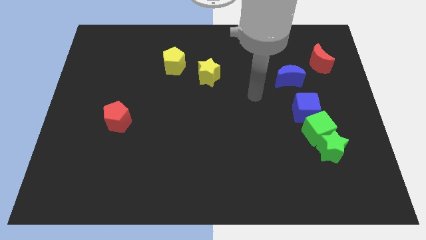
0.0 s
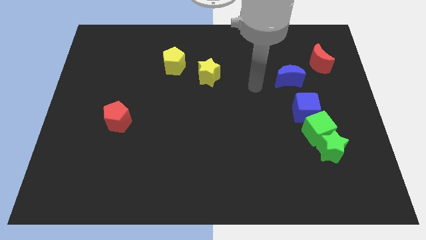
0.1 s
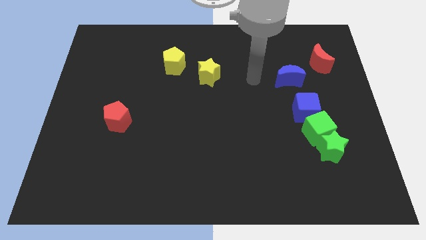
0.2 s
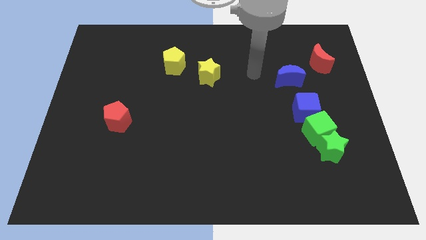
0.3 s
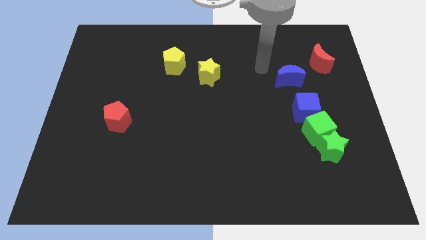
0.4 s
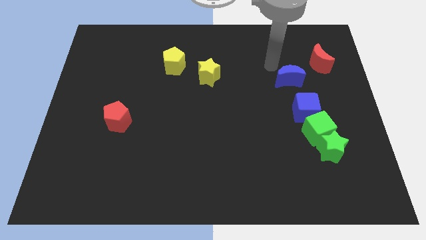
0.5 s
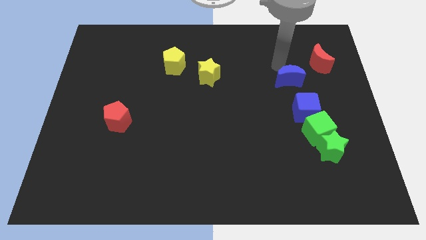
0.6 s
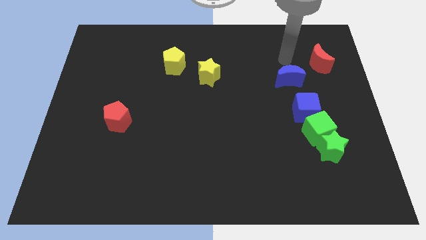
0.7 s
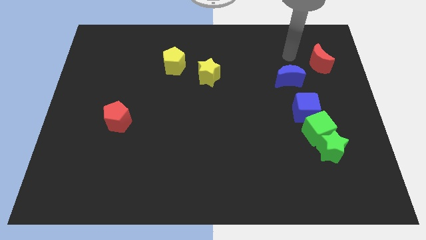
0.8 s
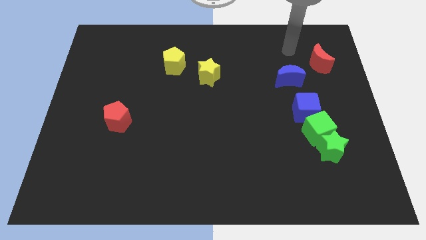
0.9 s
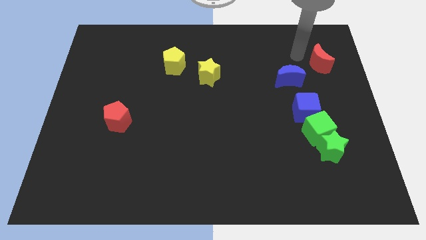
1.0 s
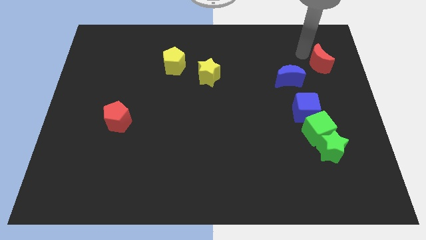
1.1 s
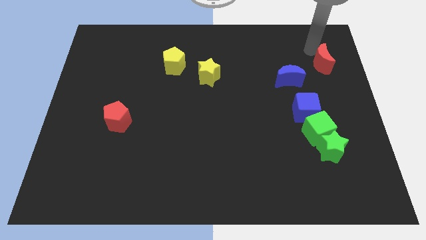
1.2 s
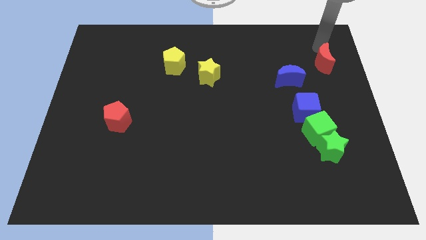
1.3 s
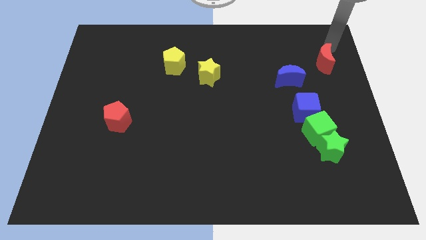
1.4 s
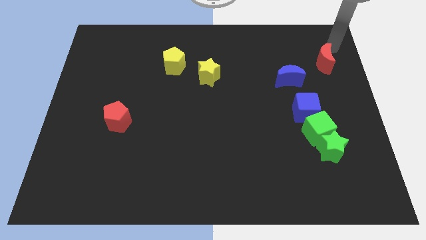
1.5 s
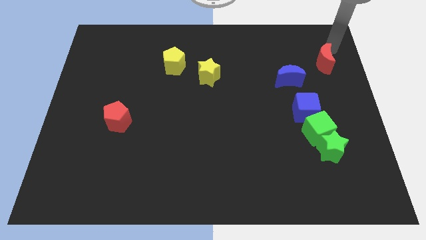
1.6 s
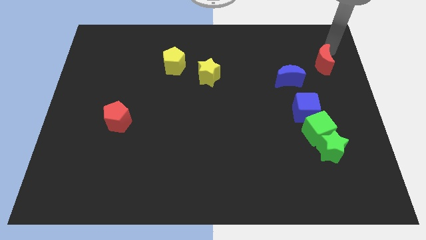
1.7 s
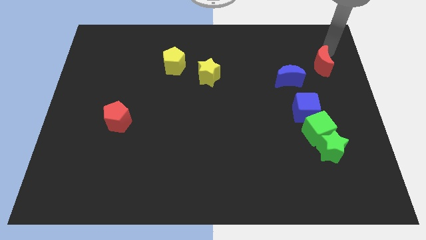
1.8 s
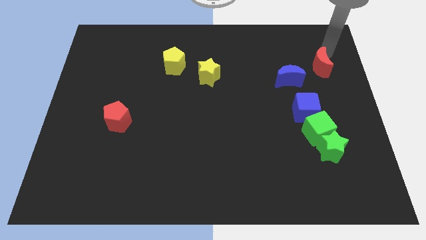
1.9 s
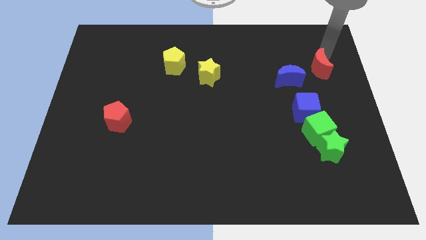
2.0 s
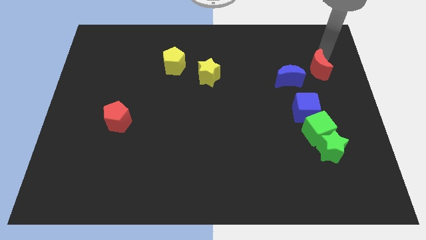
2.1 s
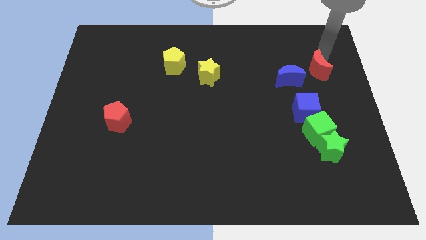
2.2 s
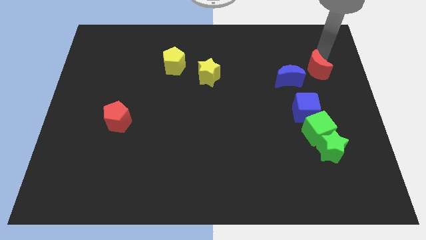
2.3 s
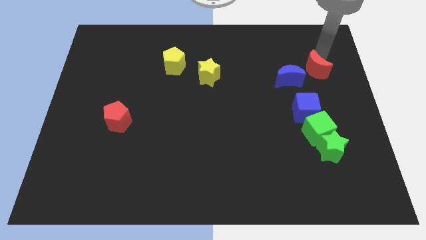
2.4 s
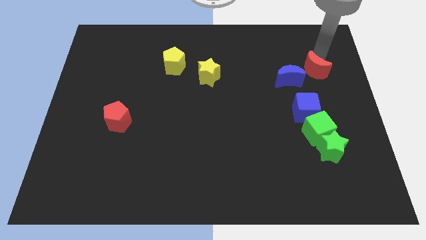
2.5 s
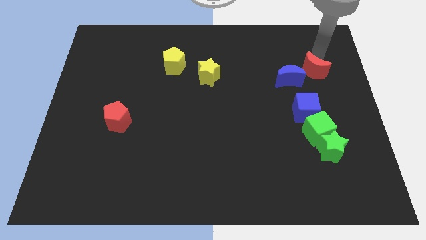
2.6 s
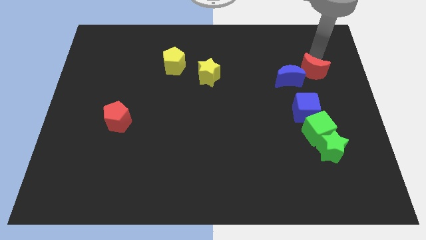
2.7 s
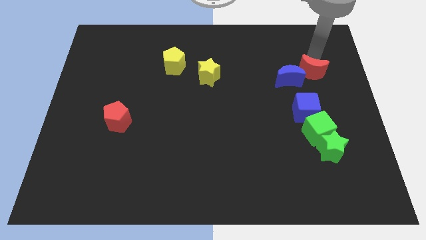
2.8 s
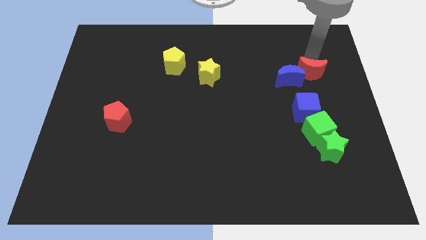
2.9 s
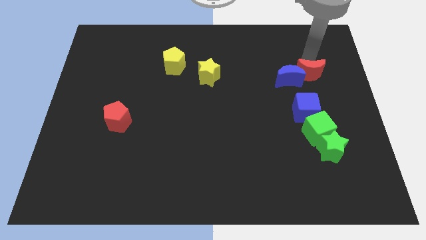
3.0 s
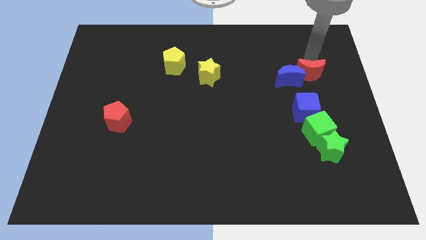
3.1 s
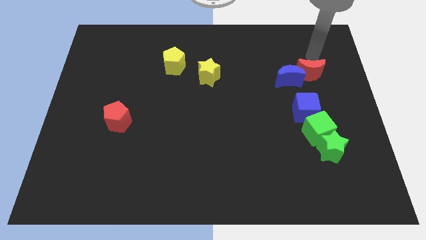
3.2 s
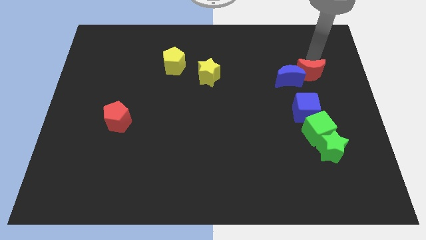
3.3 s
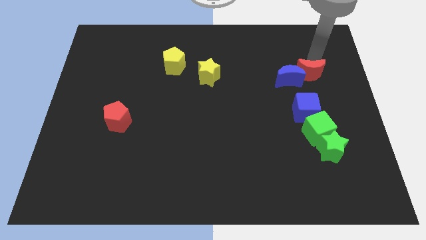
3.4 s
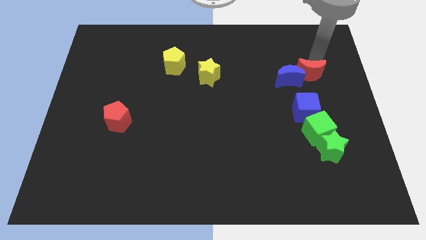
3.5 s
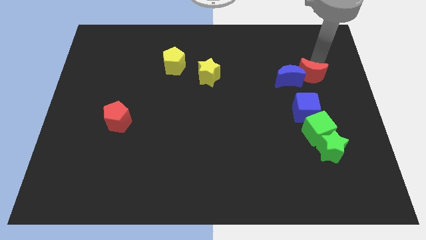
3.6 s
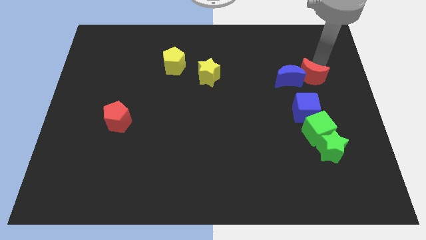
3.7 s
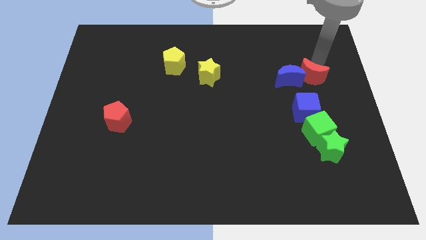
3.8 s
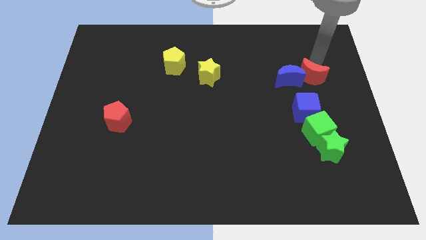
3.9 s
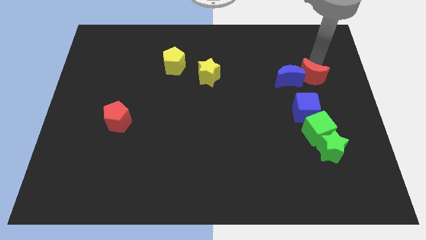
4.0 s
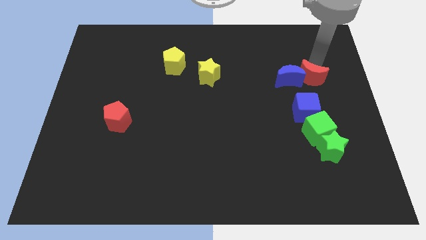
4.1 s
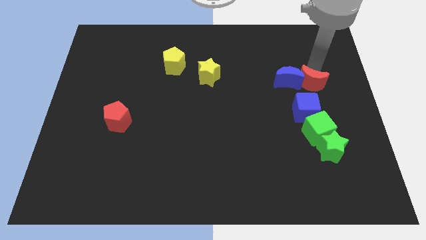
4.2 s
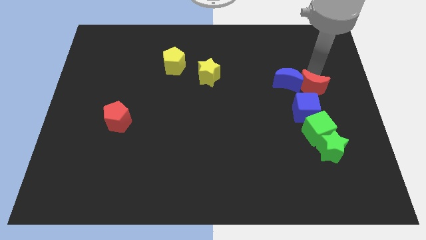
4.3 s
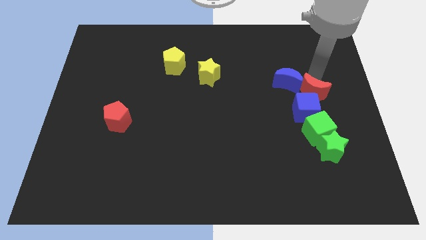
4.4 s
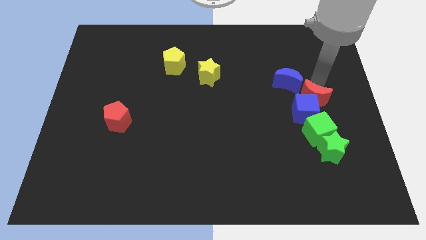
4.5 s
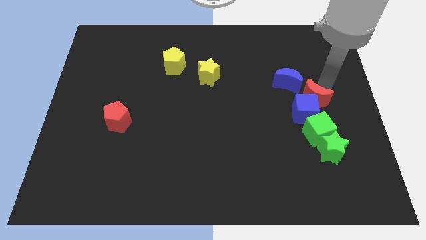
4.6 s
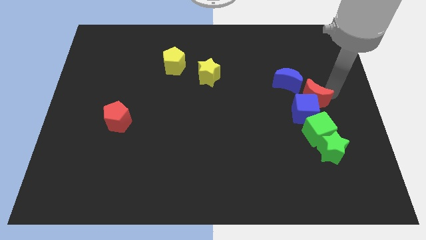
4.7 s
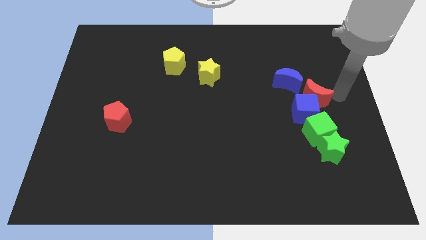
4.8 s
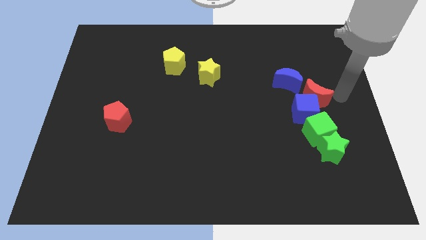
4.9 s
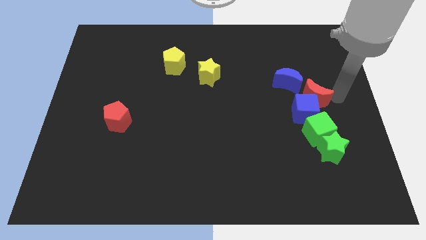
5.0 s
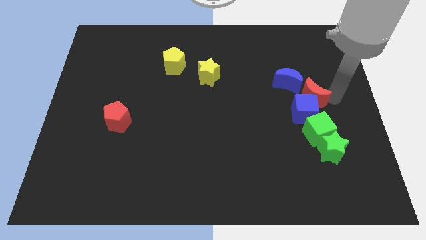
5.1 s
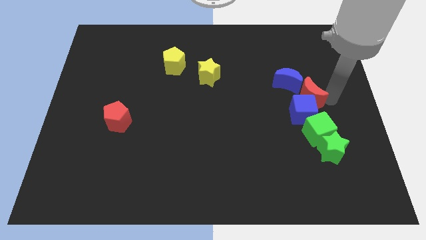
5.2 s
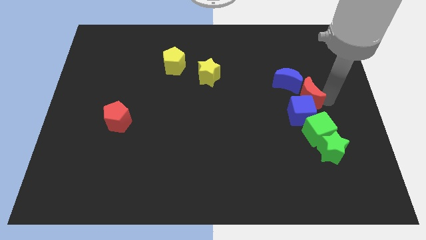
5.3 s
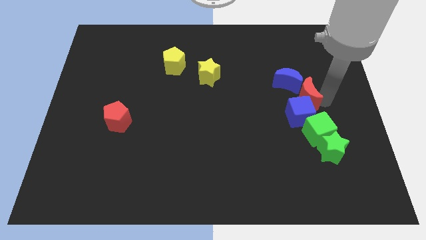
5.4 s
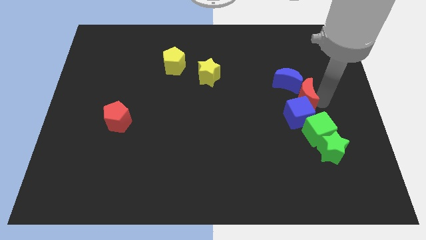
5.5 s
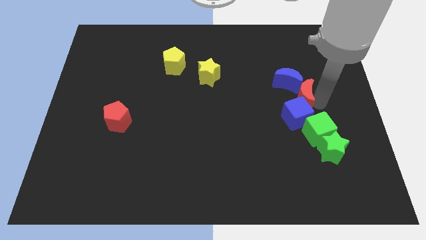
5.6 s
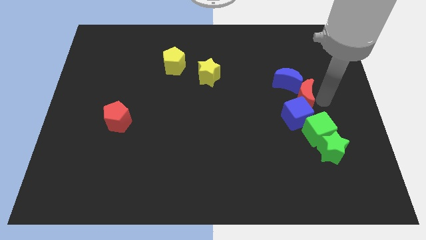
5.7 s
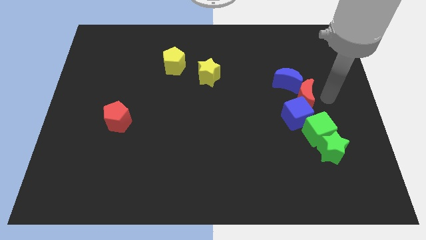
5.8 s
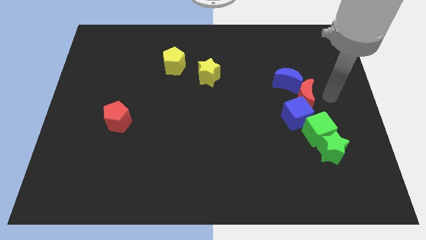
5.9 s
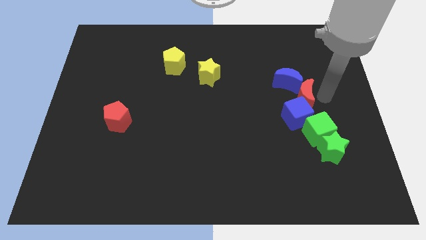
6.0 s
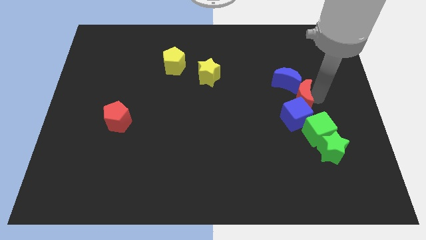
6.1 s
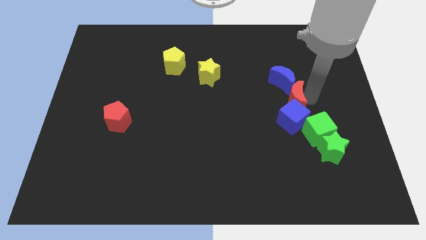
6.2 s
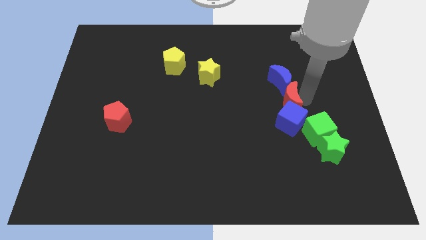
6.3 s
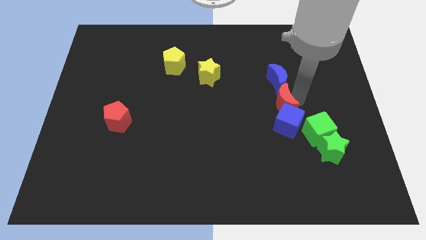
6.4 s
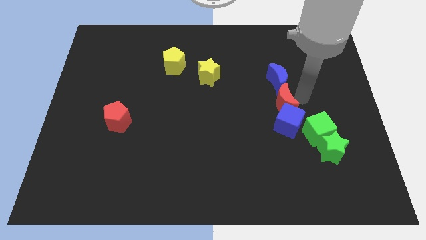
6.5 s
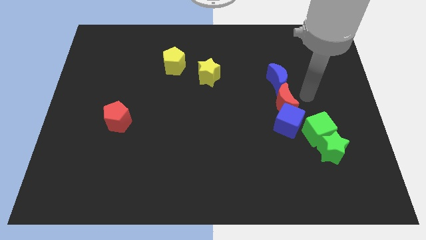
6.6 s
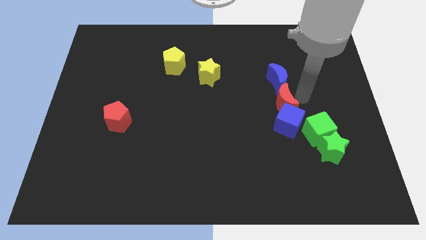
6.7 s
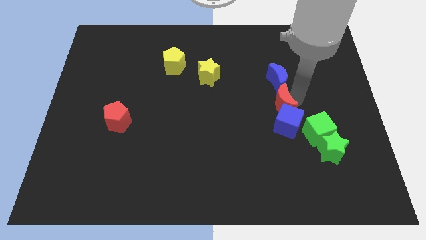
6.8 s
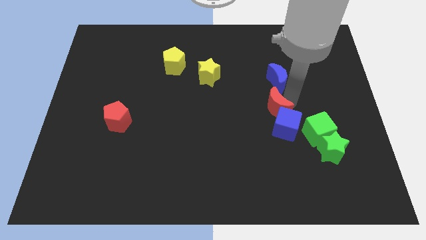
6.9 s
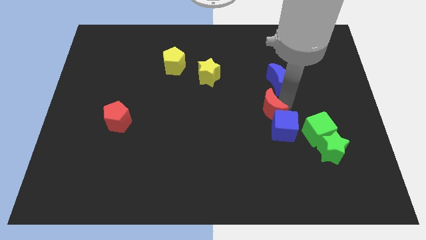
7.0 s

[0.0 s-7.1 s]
slide the red moon diagonally down and left

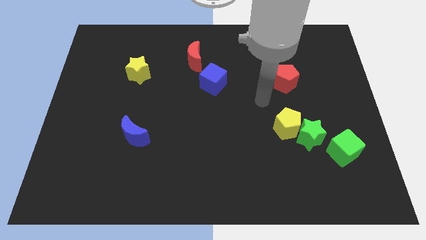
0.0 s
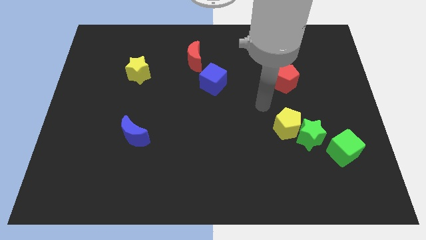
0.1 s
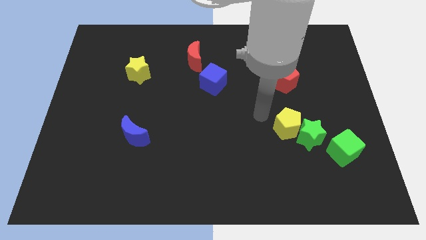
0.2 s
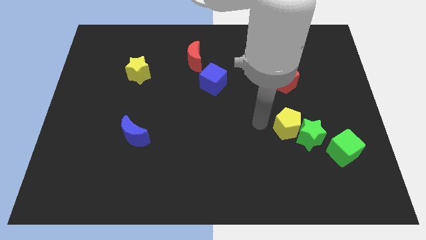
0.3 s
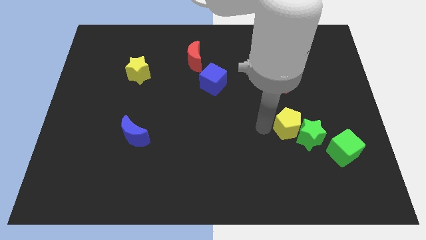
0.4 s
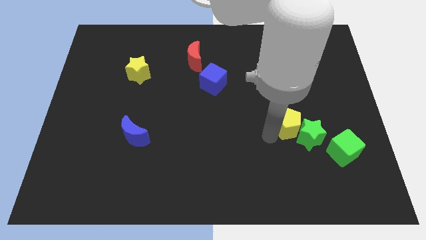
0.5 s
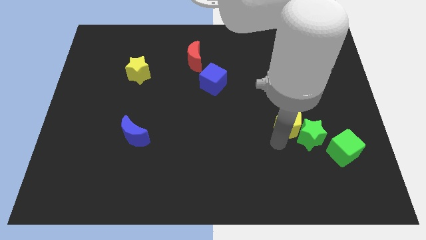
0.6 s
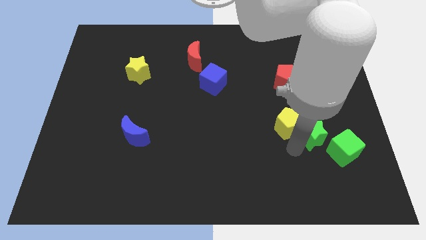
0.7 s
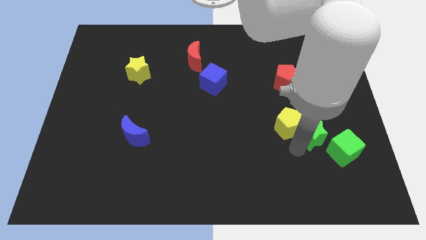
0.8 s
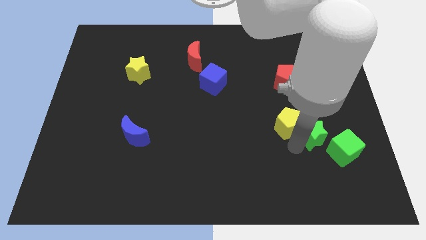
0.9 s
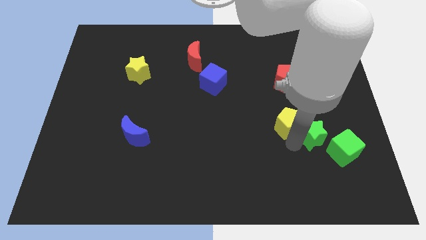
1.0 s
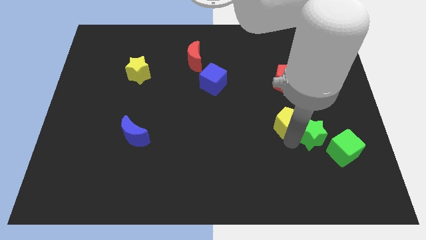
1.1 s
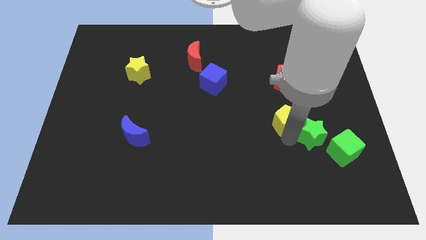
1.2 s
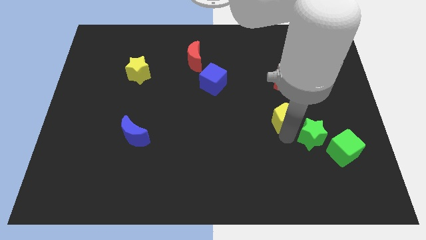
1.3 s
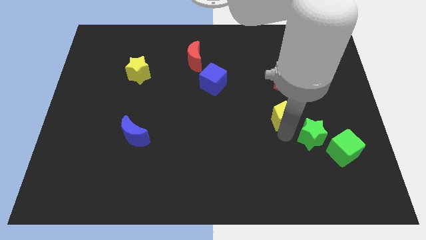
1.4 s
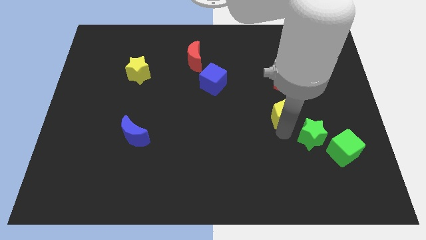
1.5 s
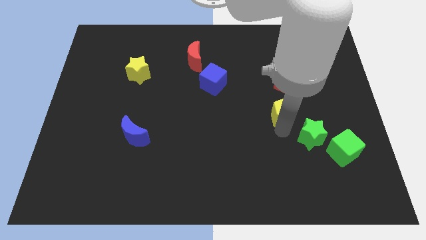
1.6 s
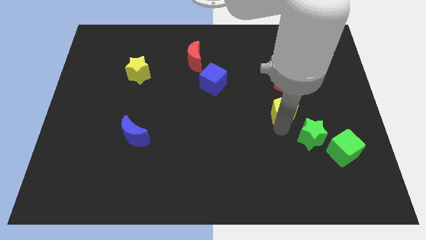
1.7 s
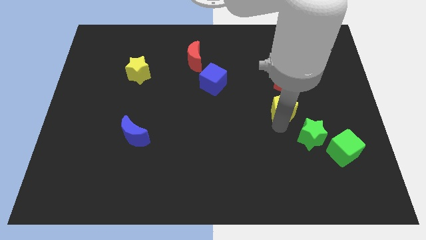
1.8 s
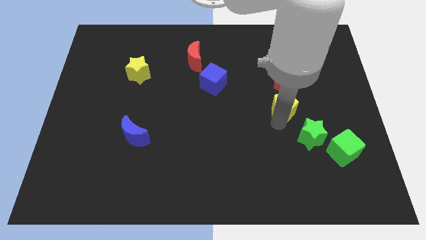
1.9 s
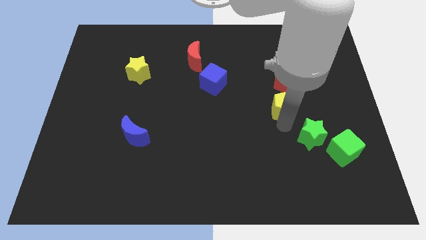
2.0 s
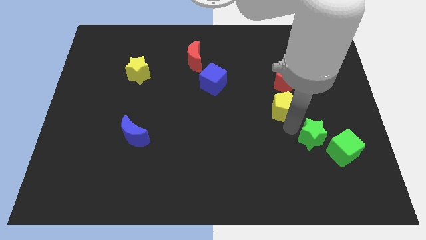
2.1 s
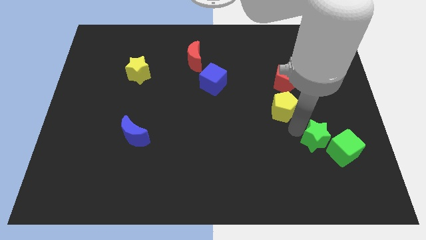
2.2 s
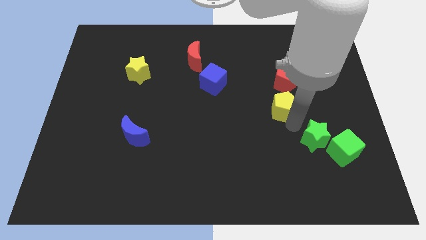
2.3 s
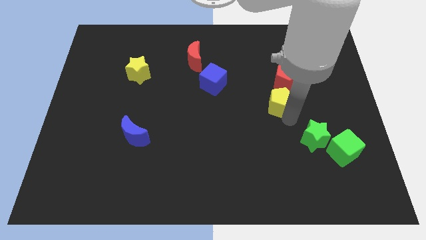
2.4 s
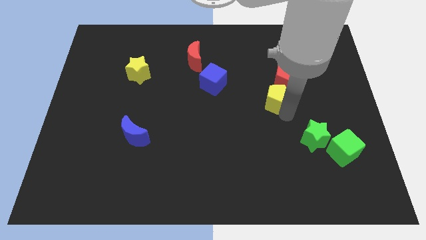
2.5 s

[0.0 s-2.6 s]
move the yellow pentagon upwards a little
